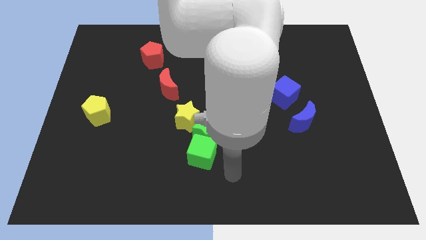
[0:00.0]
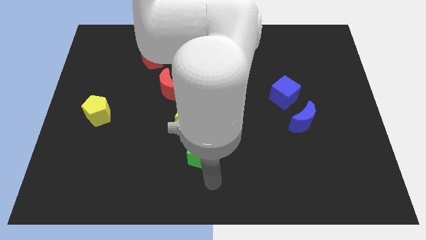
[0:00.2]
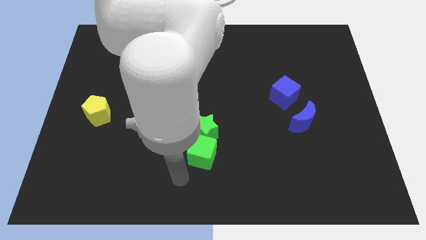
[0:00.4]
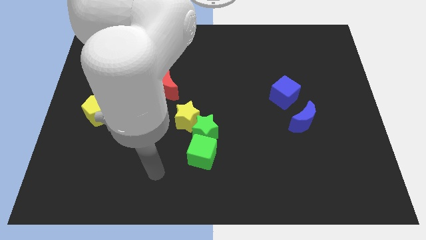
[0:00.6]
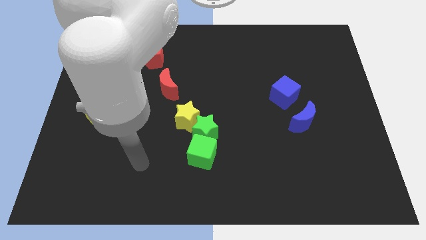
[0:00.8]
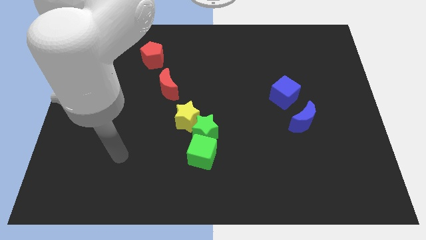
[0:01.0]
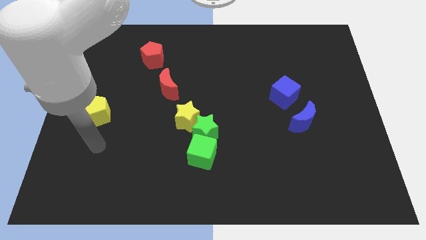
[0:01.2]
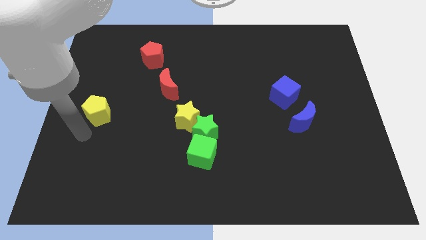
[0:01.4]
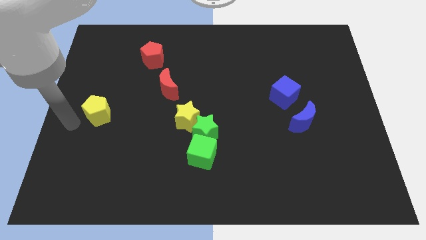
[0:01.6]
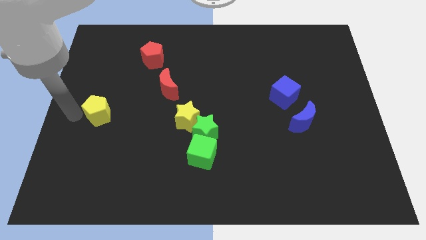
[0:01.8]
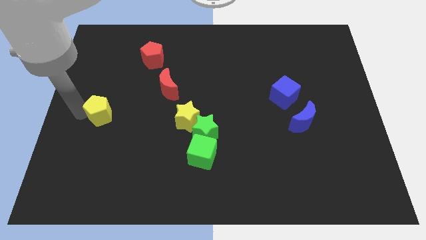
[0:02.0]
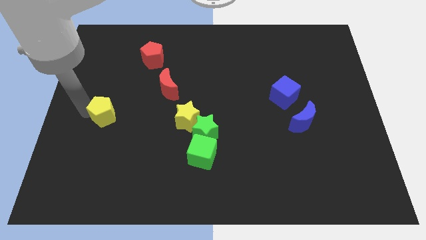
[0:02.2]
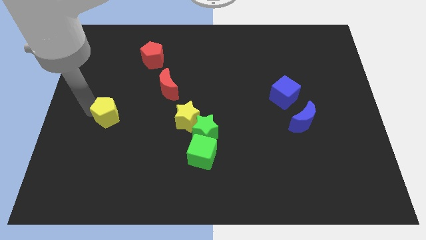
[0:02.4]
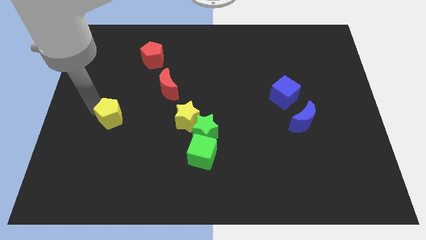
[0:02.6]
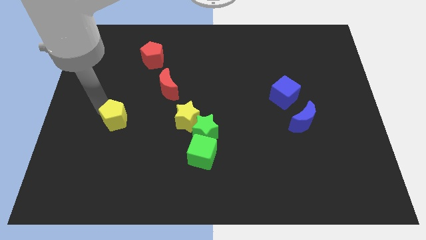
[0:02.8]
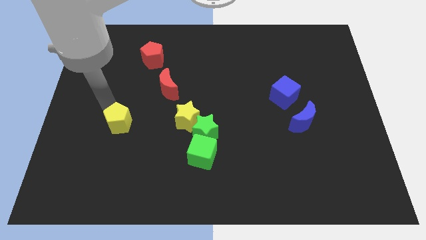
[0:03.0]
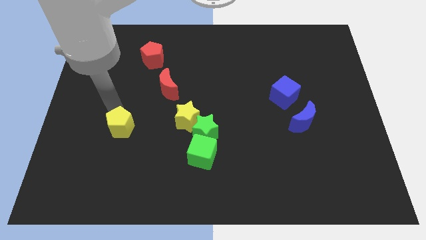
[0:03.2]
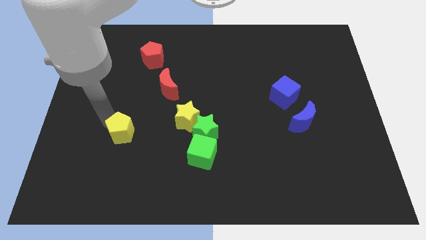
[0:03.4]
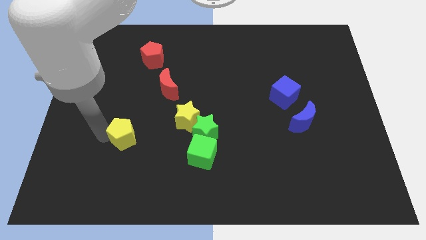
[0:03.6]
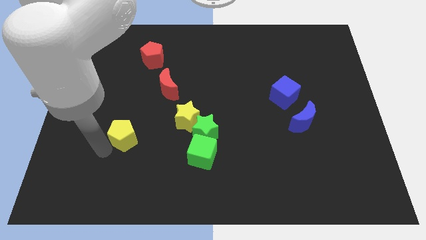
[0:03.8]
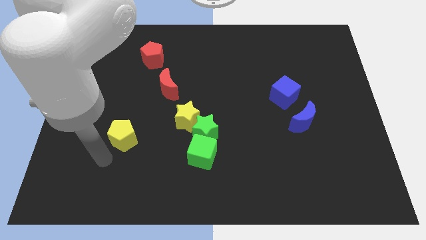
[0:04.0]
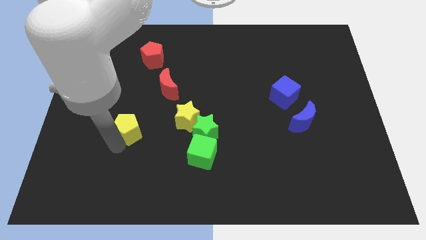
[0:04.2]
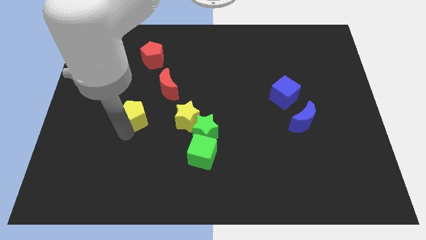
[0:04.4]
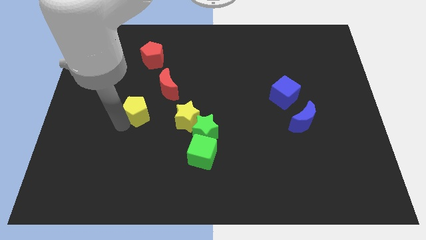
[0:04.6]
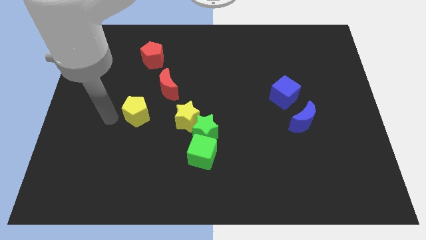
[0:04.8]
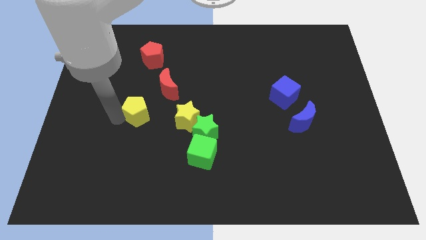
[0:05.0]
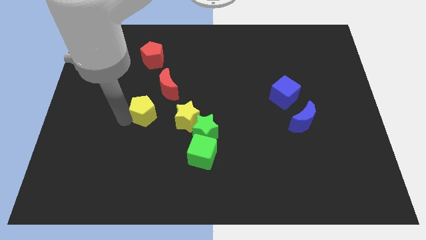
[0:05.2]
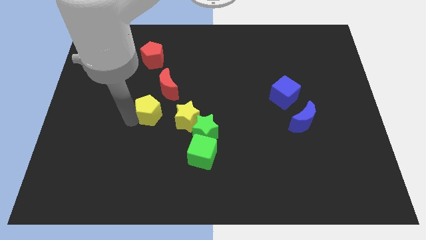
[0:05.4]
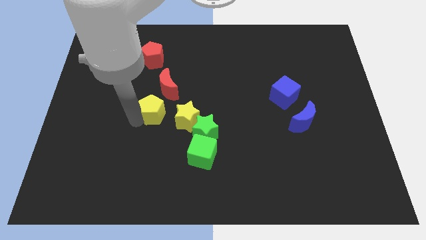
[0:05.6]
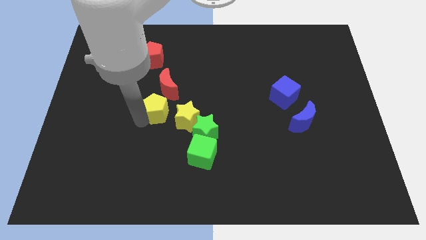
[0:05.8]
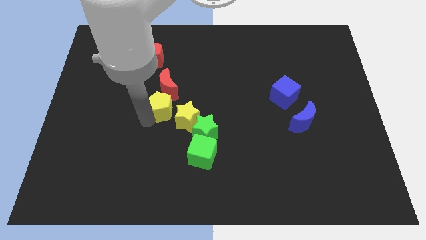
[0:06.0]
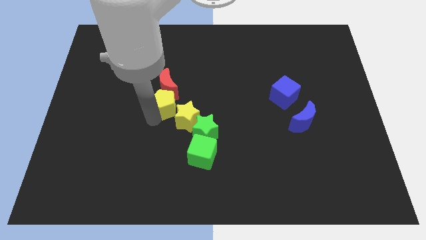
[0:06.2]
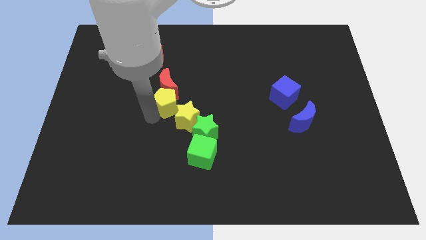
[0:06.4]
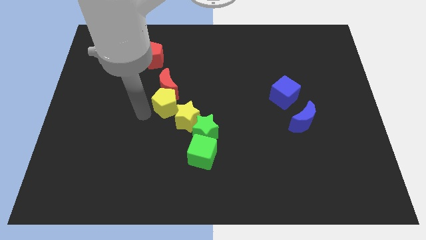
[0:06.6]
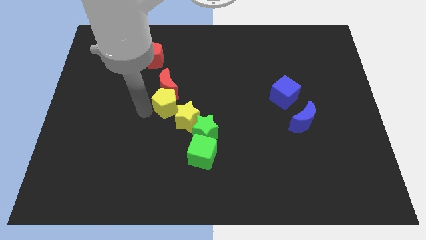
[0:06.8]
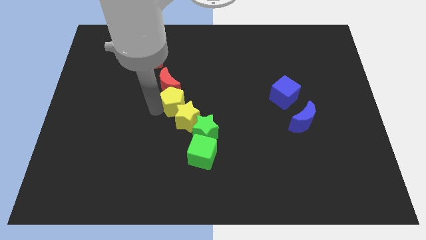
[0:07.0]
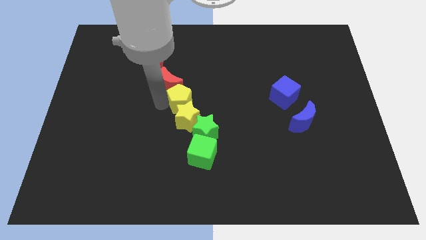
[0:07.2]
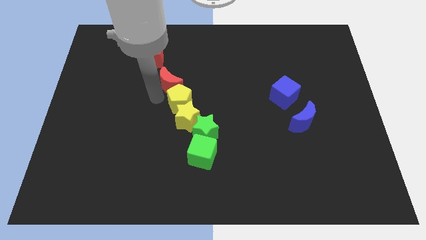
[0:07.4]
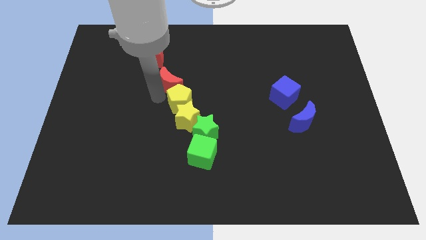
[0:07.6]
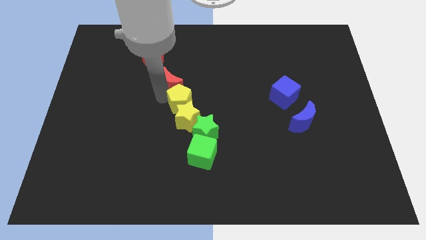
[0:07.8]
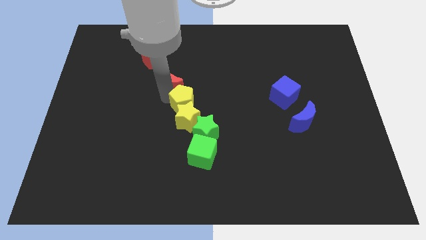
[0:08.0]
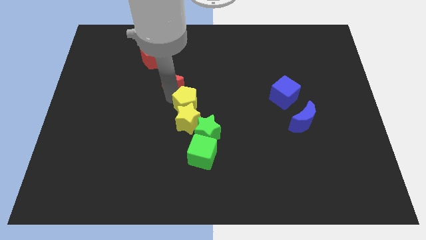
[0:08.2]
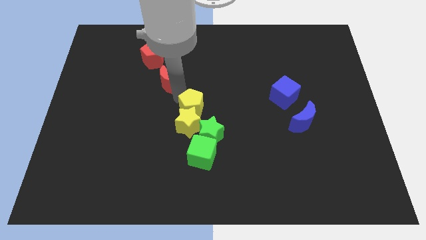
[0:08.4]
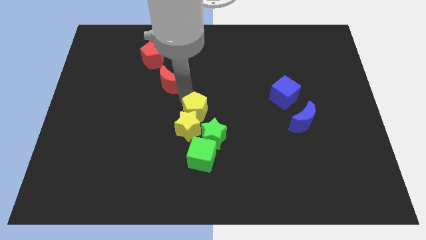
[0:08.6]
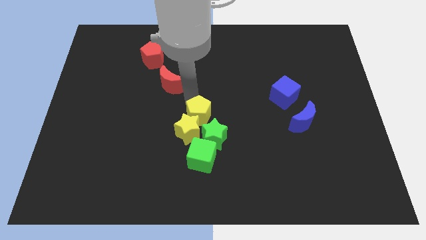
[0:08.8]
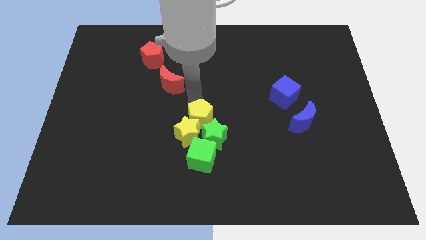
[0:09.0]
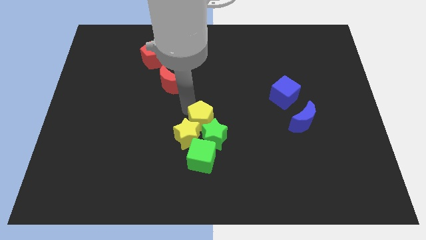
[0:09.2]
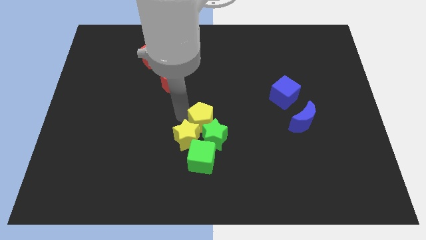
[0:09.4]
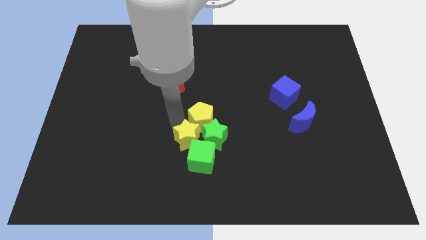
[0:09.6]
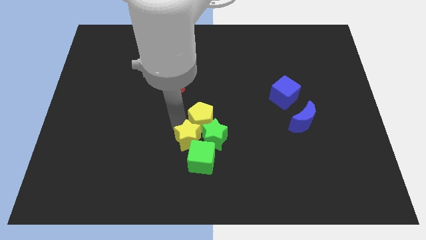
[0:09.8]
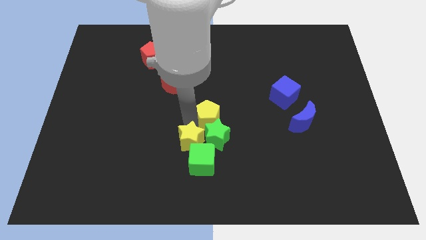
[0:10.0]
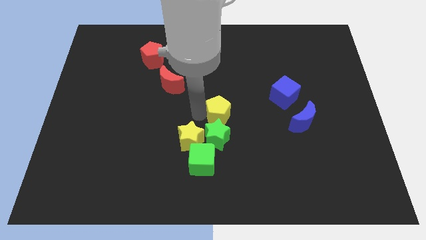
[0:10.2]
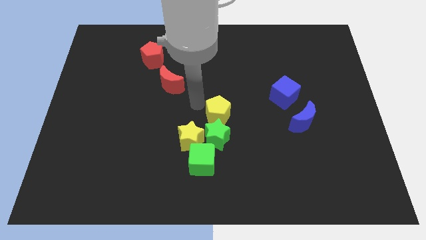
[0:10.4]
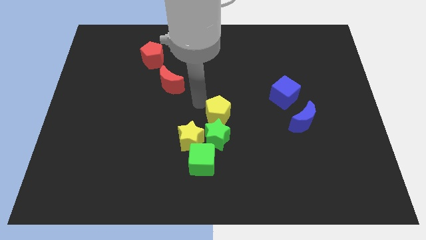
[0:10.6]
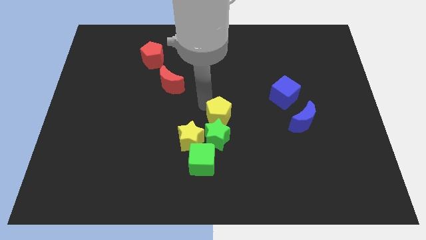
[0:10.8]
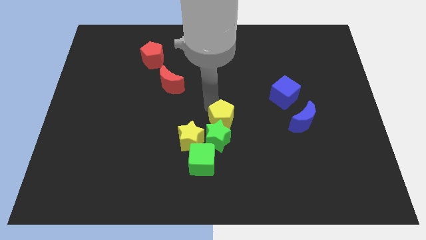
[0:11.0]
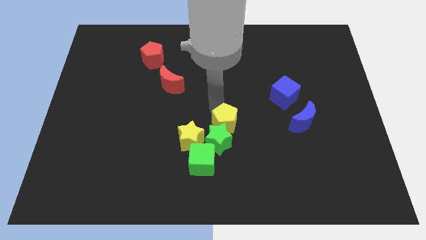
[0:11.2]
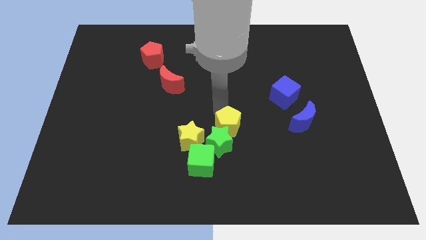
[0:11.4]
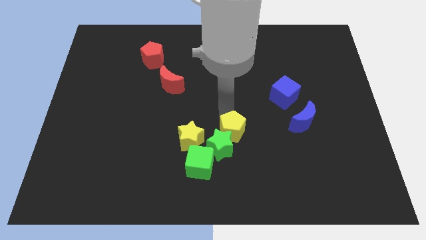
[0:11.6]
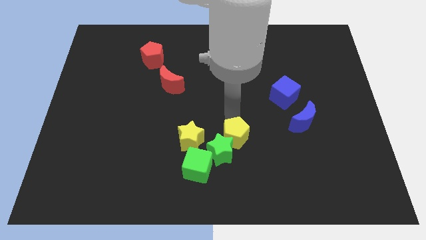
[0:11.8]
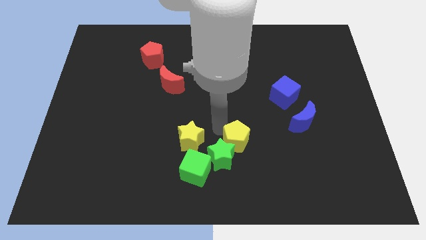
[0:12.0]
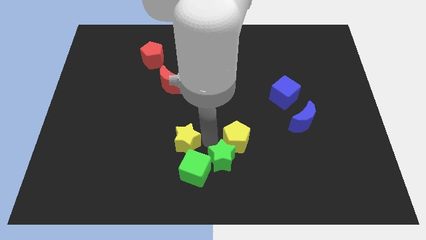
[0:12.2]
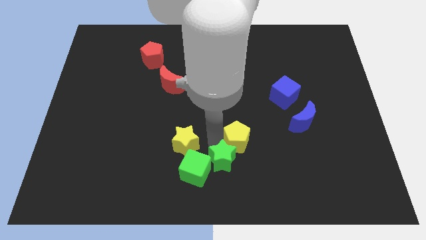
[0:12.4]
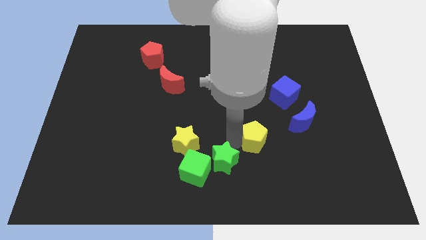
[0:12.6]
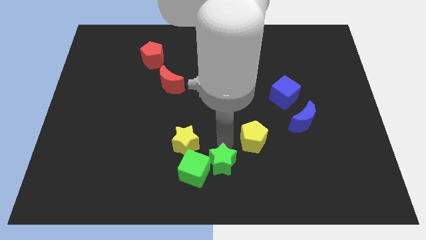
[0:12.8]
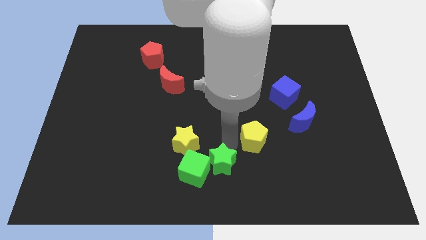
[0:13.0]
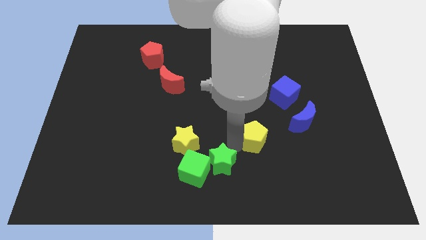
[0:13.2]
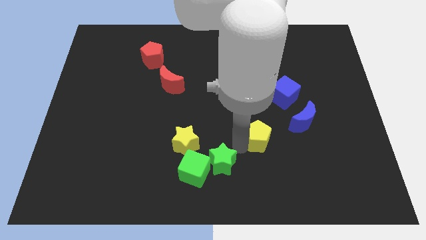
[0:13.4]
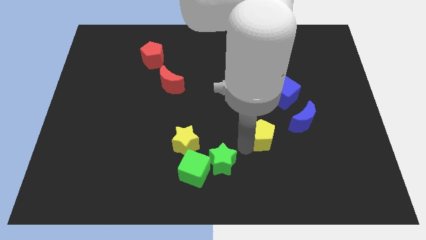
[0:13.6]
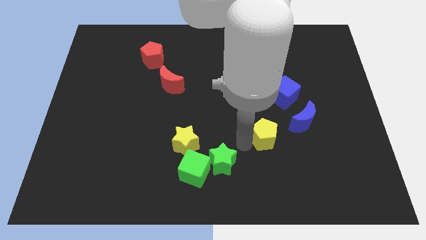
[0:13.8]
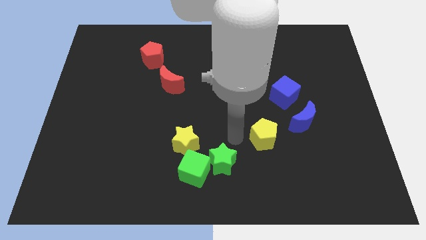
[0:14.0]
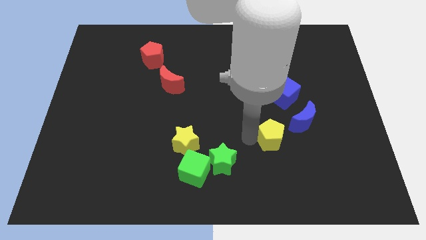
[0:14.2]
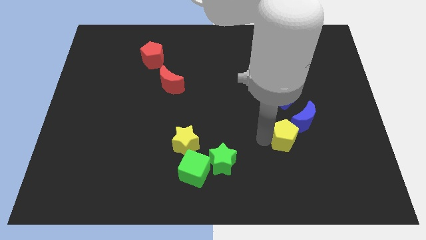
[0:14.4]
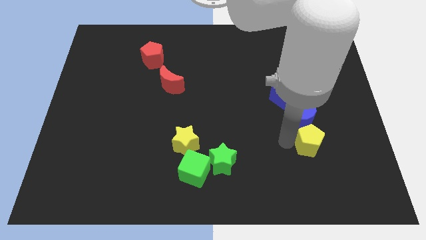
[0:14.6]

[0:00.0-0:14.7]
push the yellow pentagon to the bottom right of the blue moon

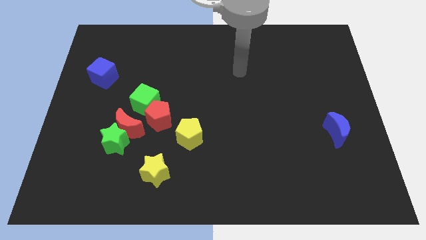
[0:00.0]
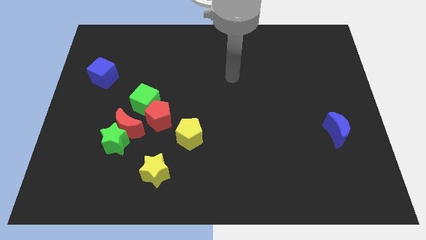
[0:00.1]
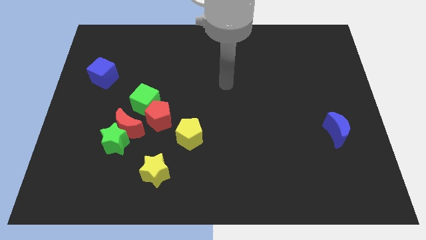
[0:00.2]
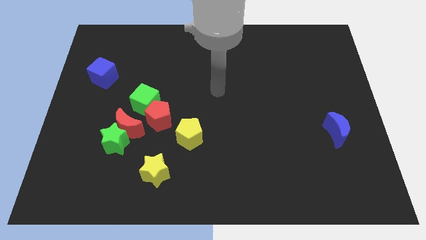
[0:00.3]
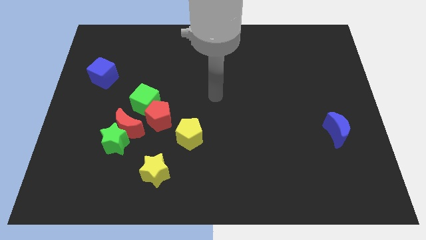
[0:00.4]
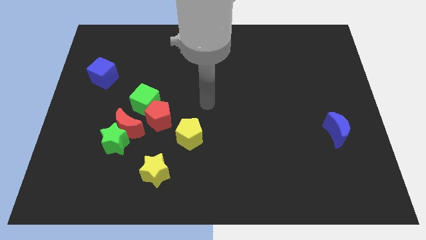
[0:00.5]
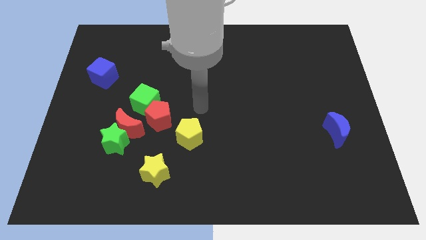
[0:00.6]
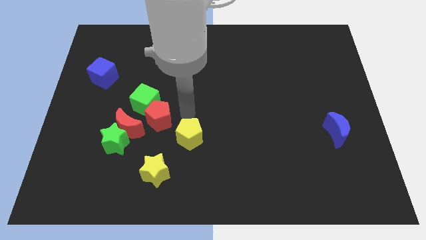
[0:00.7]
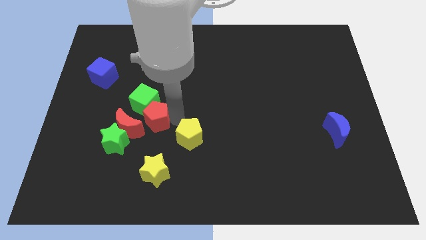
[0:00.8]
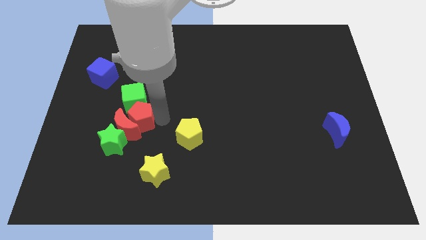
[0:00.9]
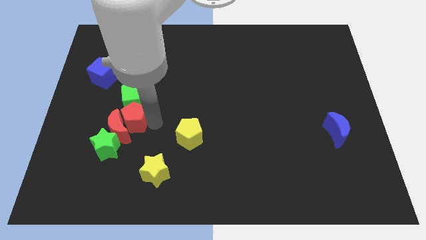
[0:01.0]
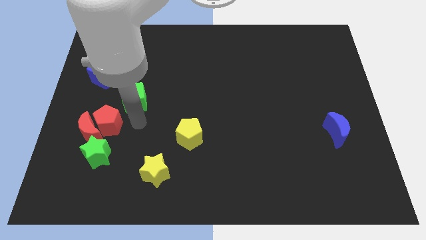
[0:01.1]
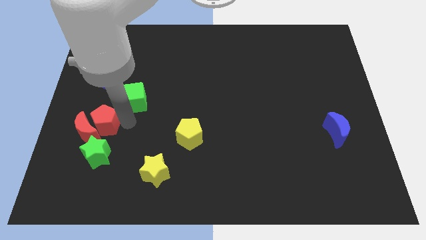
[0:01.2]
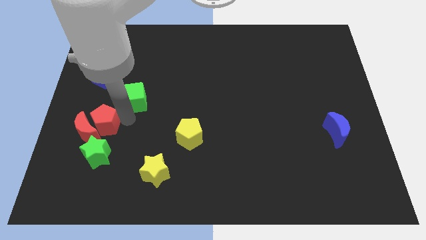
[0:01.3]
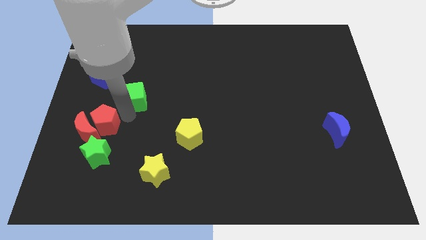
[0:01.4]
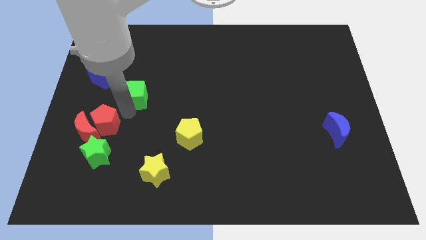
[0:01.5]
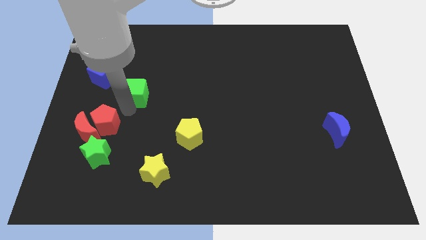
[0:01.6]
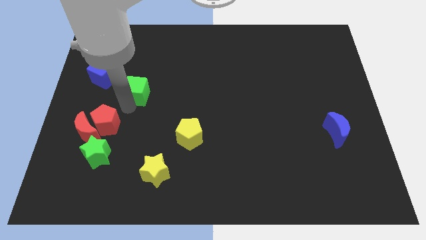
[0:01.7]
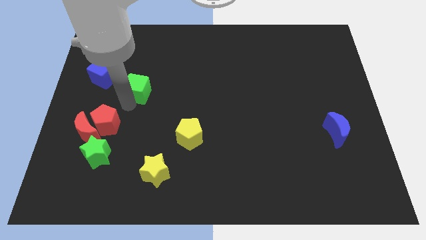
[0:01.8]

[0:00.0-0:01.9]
push the green cube just right of the blue cube
